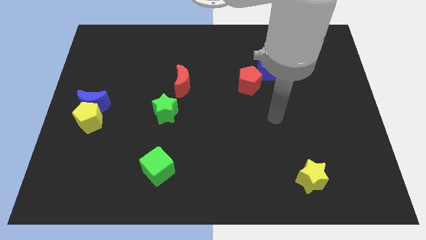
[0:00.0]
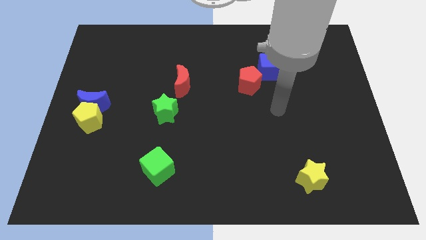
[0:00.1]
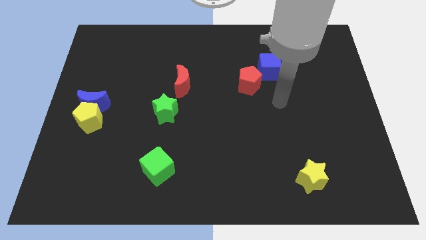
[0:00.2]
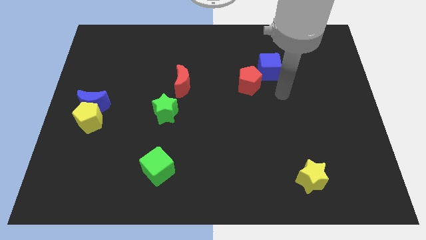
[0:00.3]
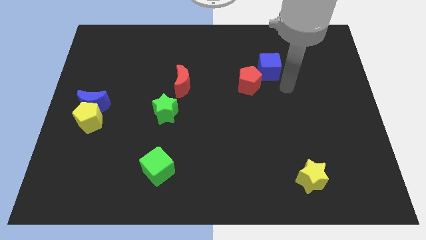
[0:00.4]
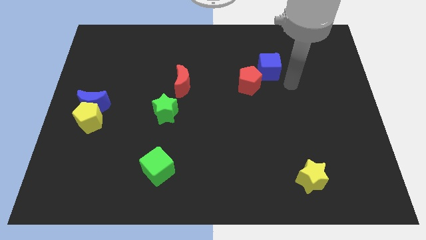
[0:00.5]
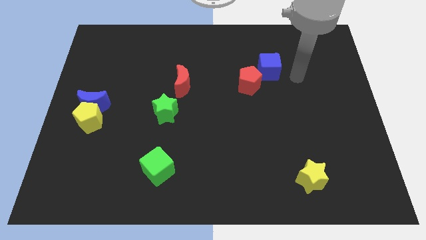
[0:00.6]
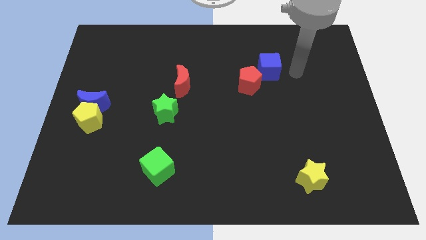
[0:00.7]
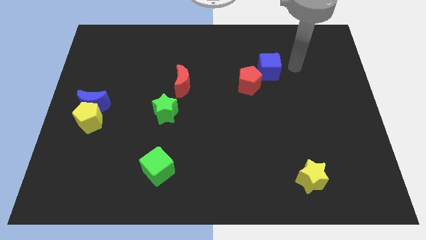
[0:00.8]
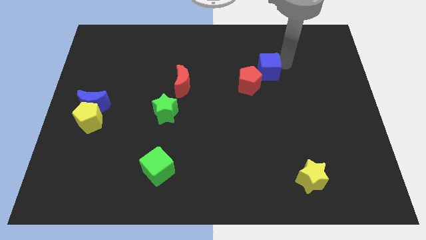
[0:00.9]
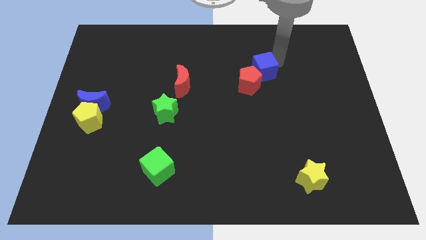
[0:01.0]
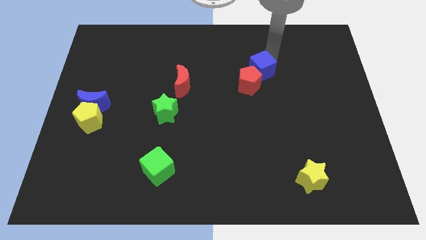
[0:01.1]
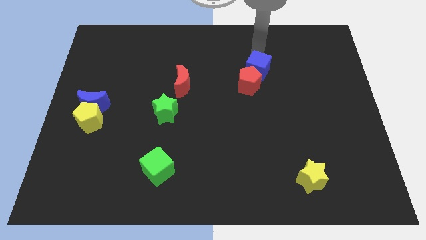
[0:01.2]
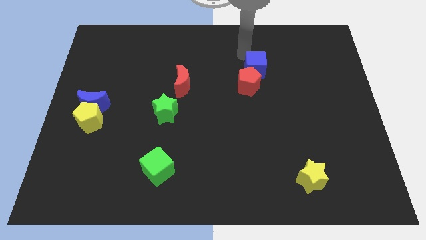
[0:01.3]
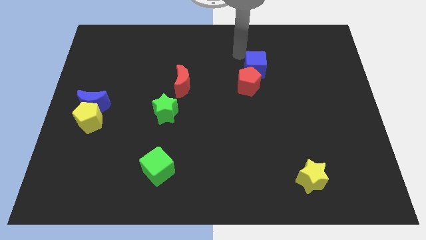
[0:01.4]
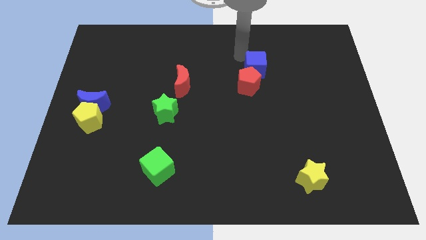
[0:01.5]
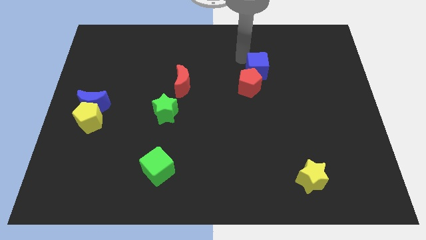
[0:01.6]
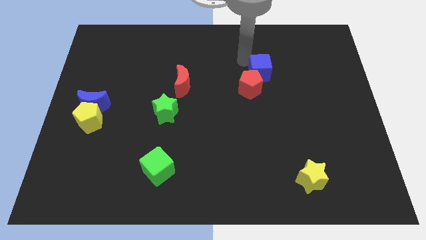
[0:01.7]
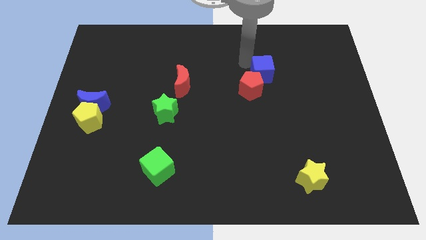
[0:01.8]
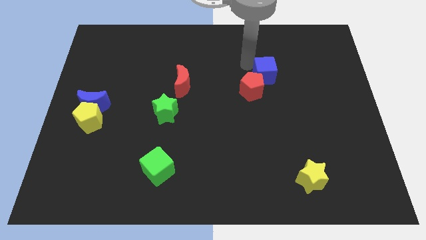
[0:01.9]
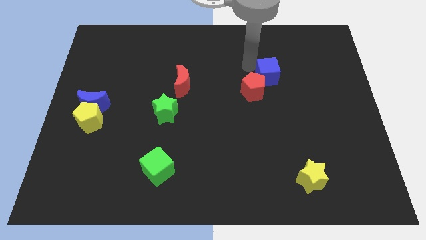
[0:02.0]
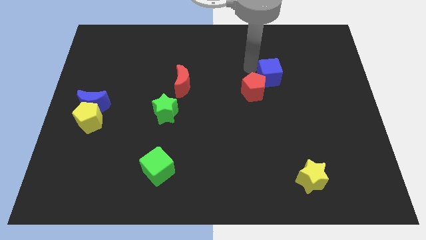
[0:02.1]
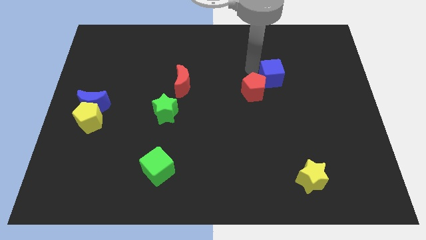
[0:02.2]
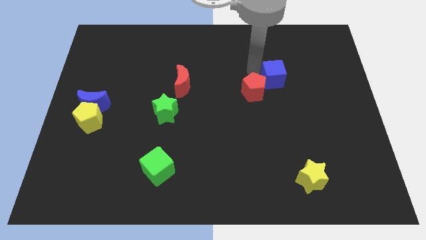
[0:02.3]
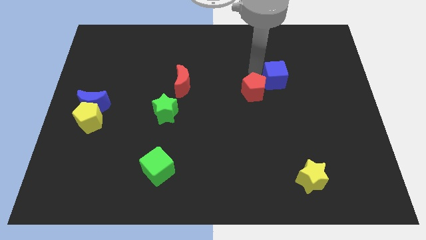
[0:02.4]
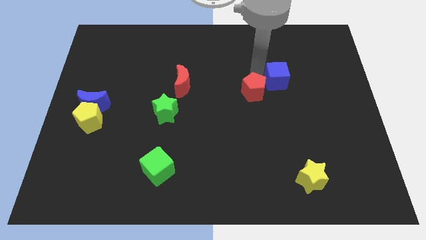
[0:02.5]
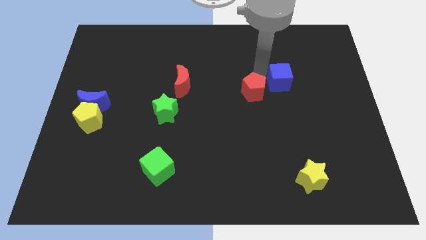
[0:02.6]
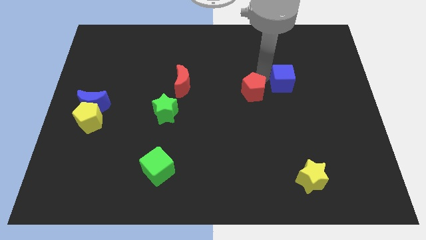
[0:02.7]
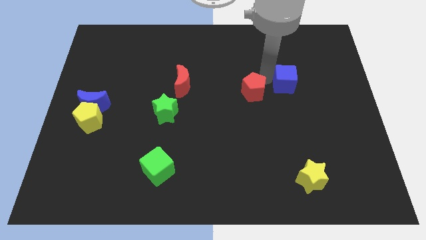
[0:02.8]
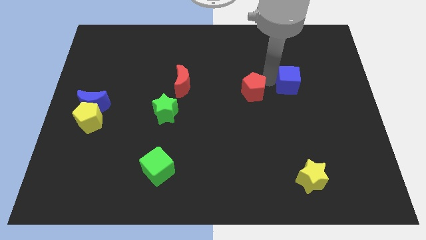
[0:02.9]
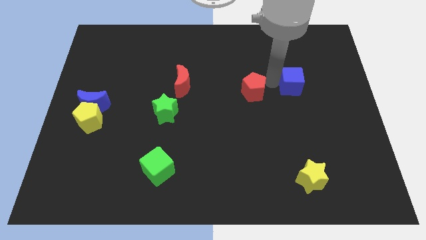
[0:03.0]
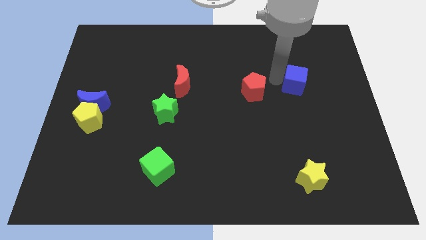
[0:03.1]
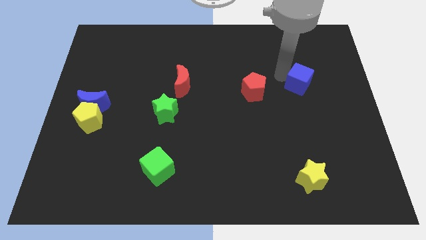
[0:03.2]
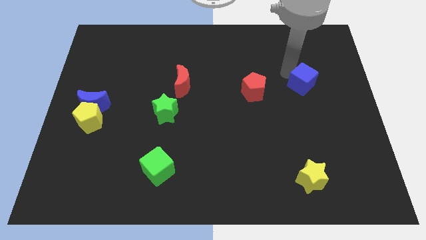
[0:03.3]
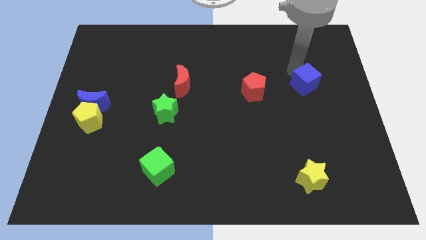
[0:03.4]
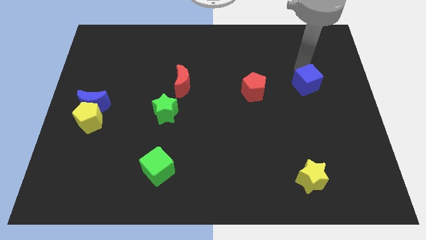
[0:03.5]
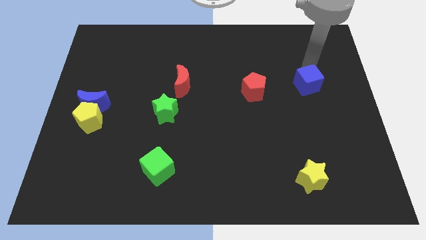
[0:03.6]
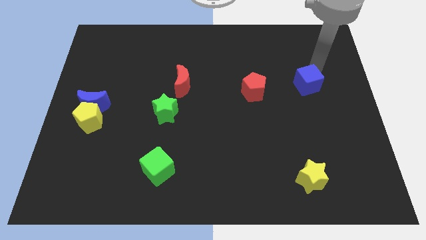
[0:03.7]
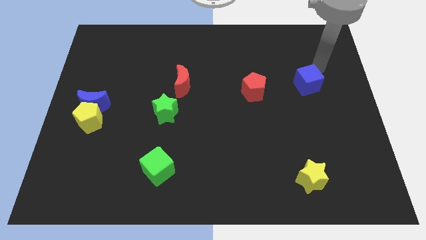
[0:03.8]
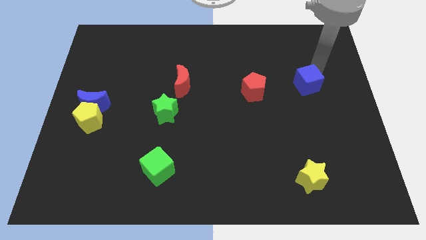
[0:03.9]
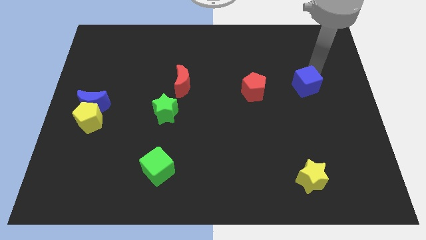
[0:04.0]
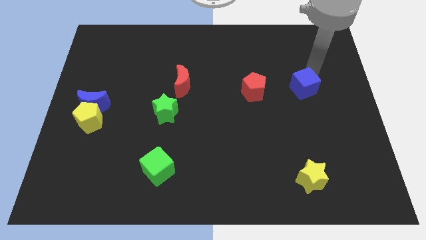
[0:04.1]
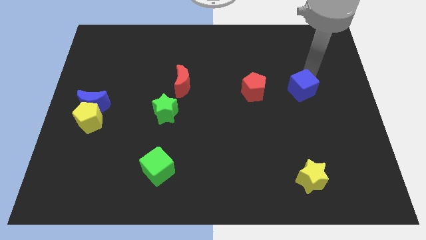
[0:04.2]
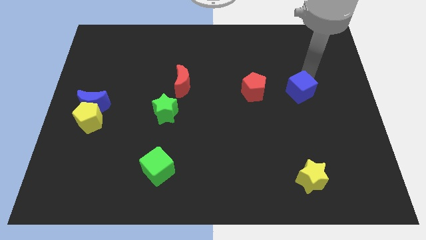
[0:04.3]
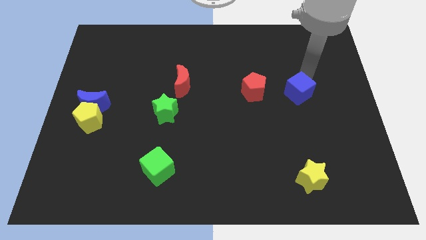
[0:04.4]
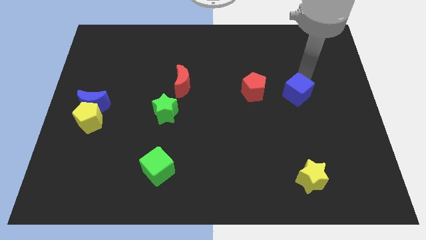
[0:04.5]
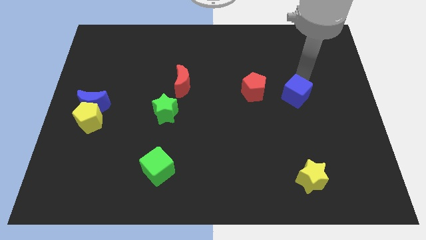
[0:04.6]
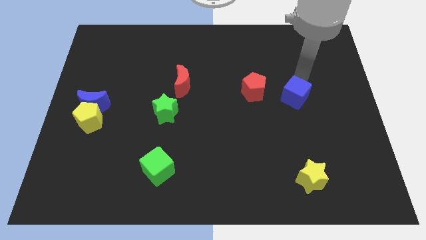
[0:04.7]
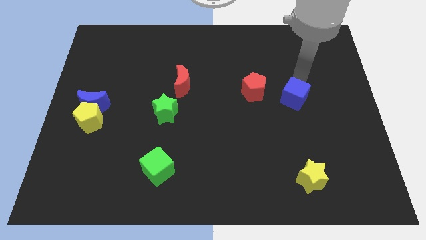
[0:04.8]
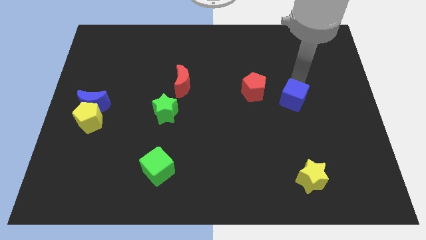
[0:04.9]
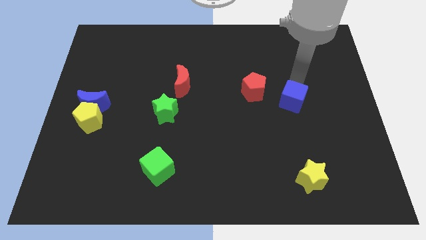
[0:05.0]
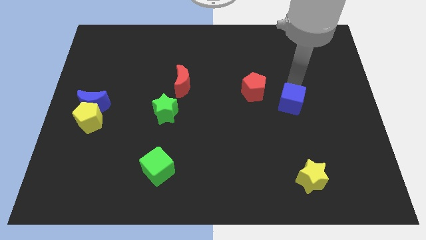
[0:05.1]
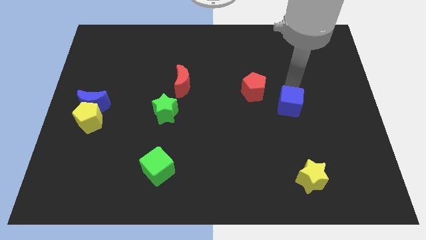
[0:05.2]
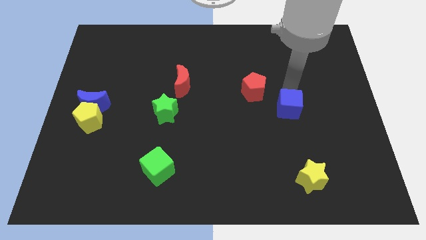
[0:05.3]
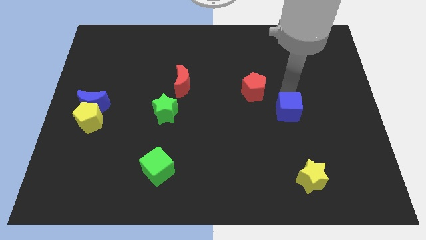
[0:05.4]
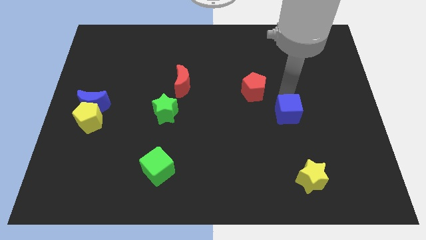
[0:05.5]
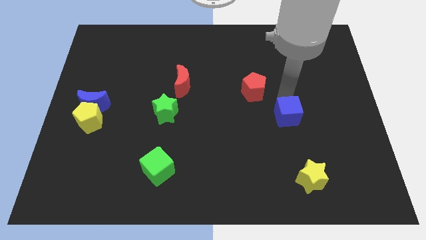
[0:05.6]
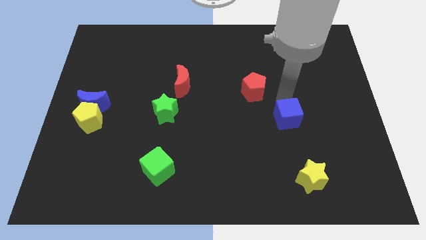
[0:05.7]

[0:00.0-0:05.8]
slide the blue cube to the top of the yellow star

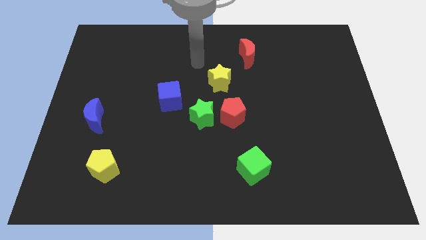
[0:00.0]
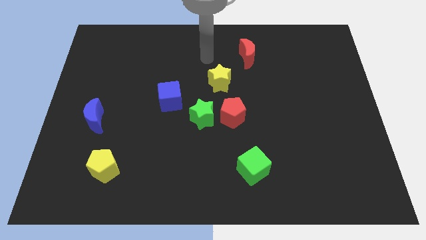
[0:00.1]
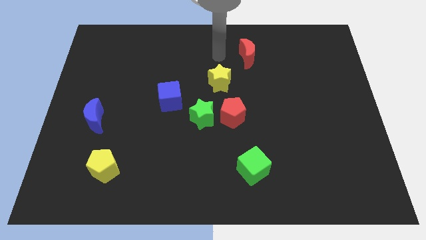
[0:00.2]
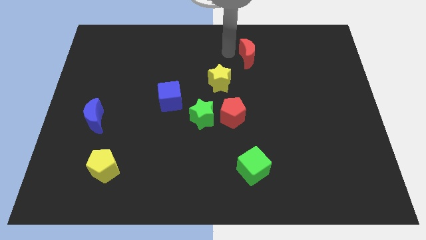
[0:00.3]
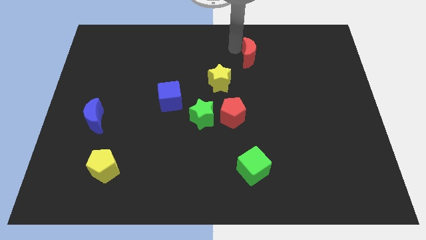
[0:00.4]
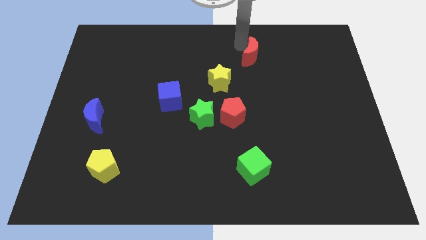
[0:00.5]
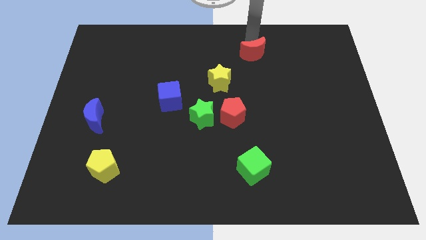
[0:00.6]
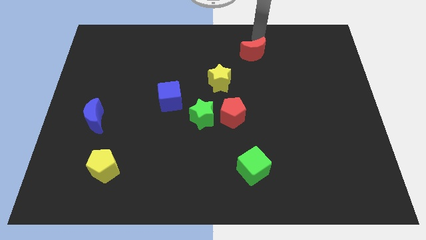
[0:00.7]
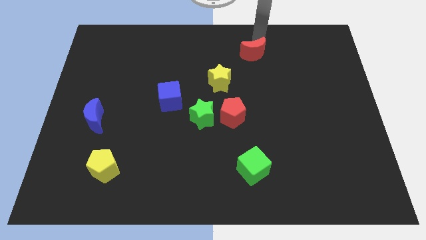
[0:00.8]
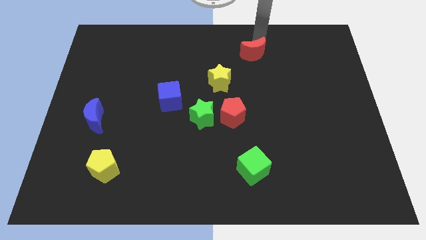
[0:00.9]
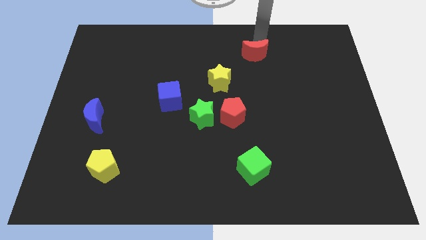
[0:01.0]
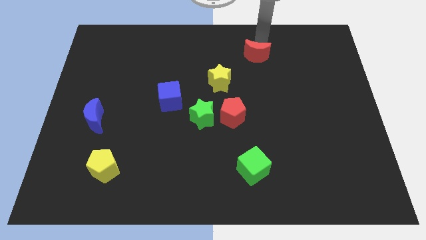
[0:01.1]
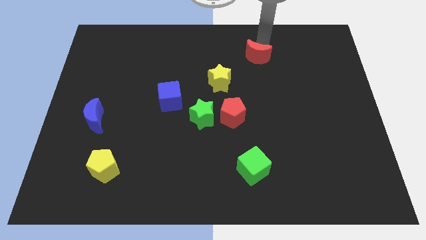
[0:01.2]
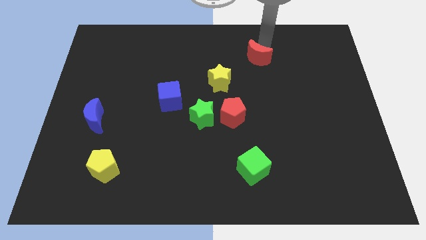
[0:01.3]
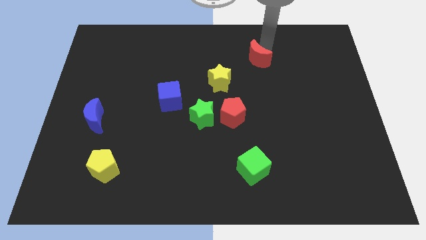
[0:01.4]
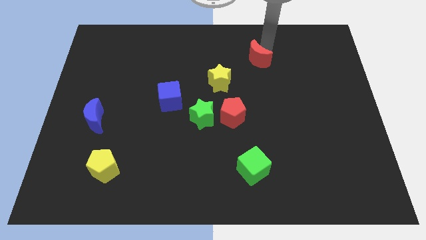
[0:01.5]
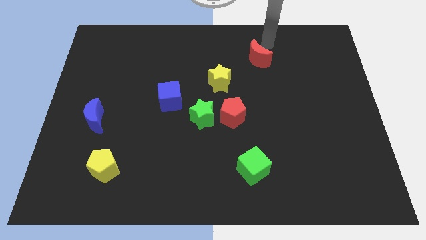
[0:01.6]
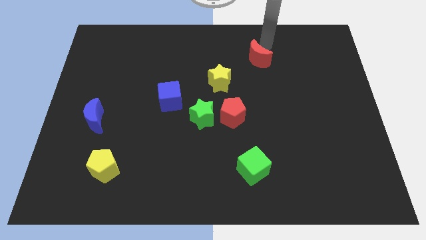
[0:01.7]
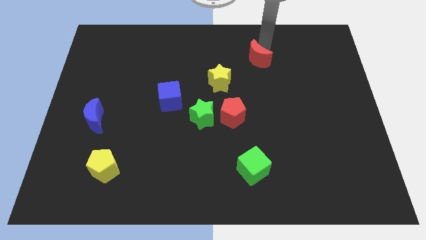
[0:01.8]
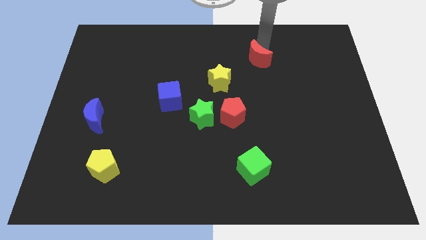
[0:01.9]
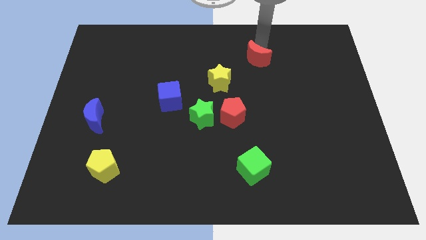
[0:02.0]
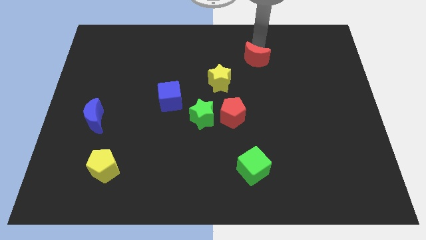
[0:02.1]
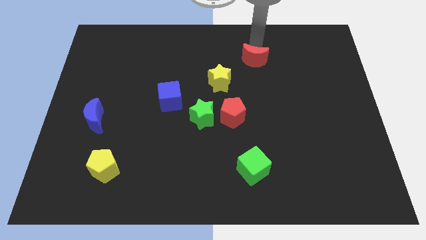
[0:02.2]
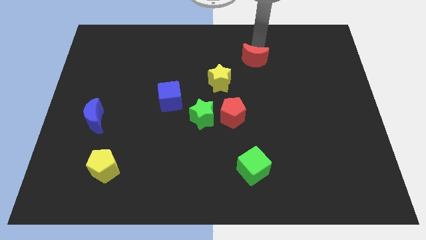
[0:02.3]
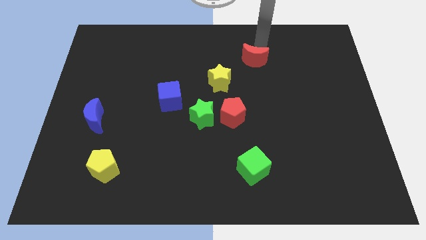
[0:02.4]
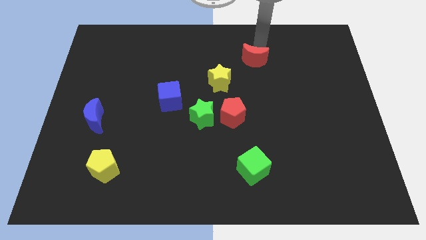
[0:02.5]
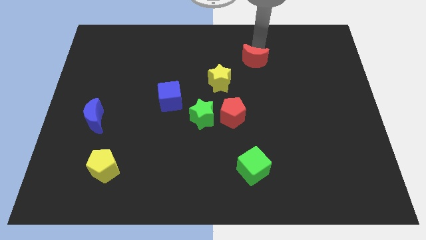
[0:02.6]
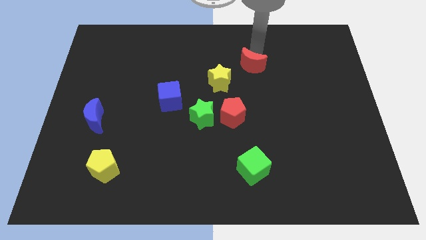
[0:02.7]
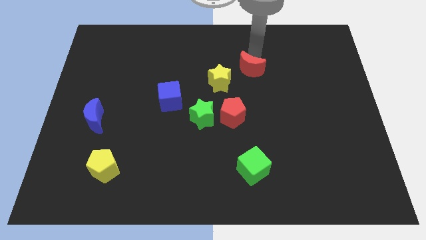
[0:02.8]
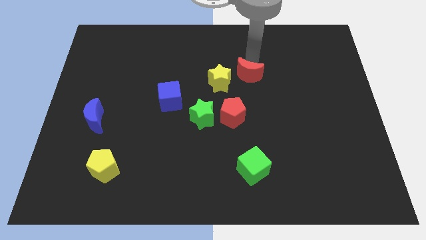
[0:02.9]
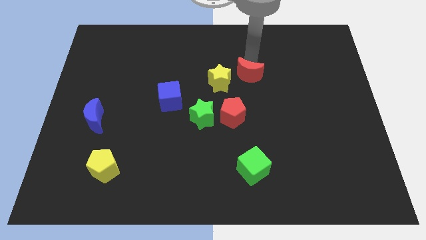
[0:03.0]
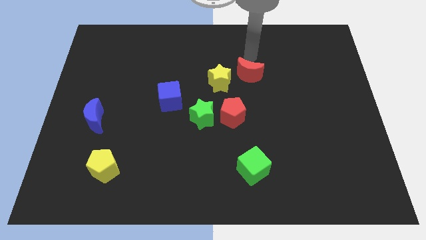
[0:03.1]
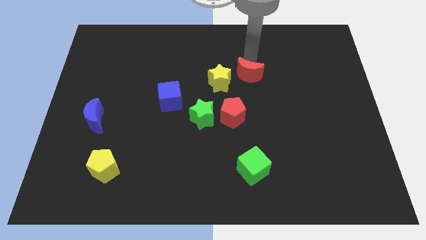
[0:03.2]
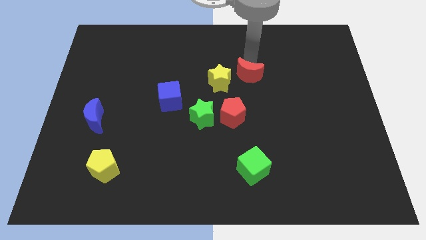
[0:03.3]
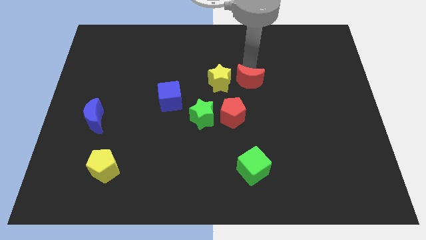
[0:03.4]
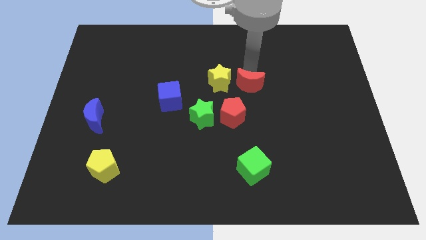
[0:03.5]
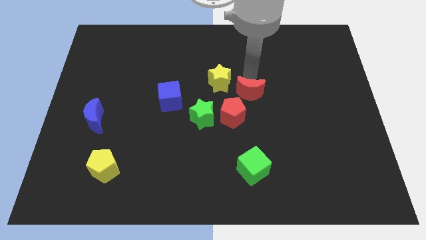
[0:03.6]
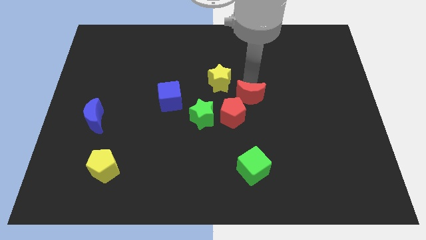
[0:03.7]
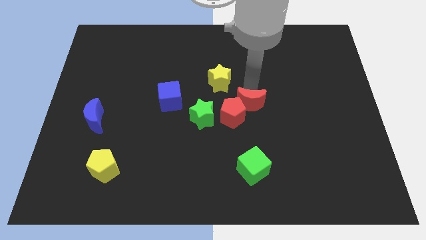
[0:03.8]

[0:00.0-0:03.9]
slide the red moon to the right of the green star
